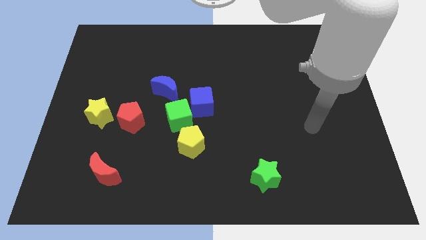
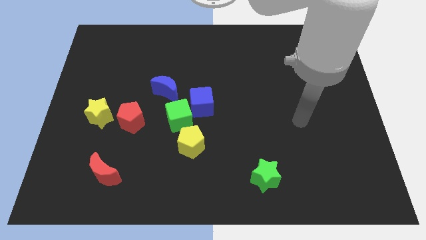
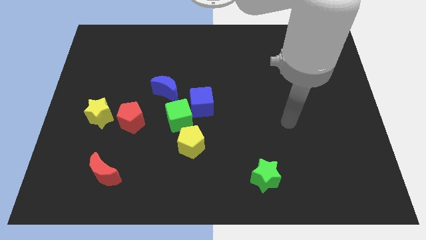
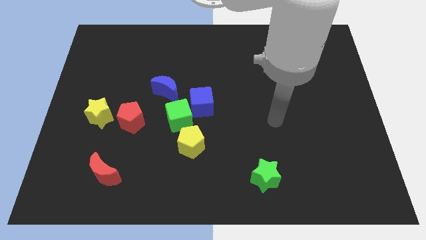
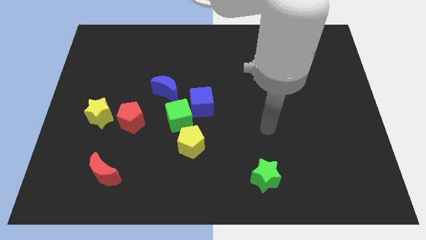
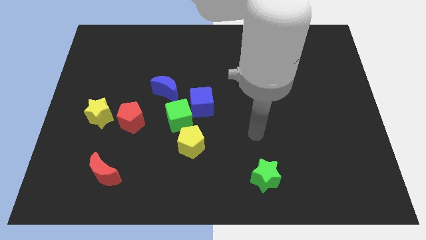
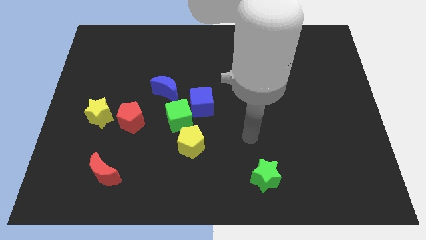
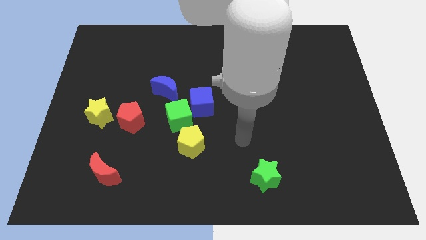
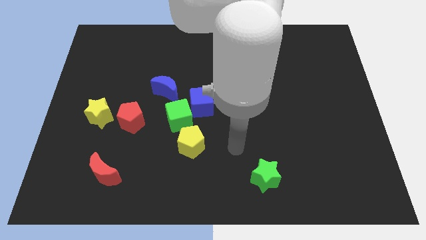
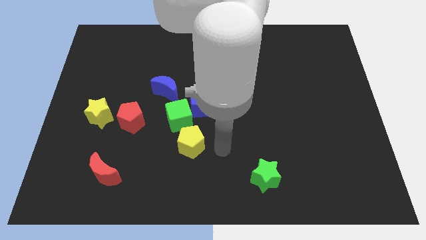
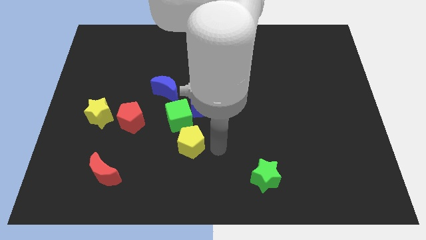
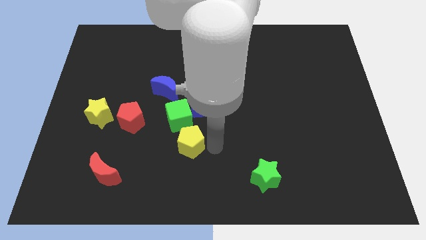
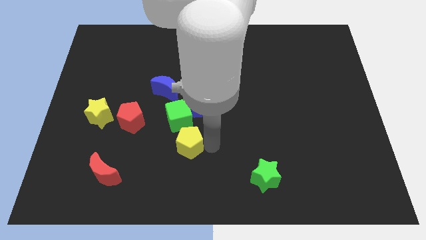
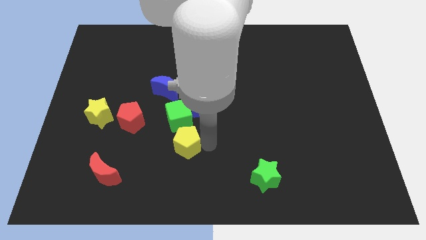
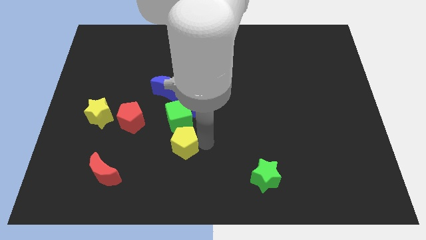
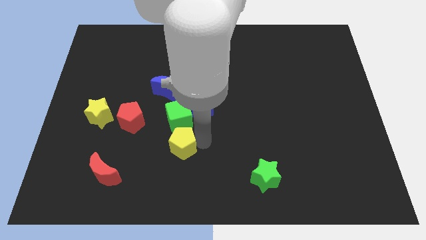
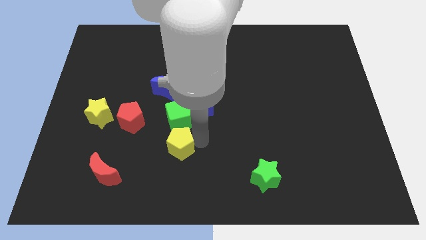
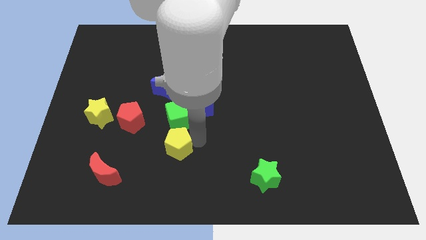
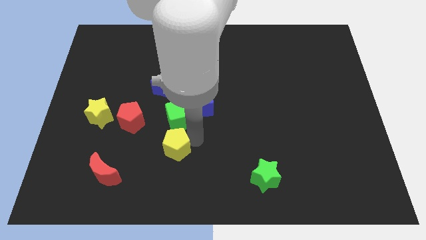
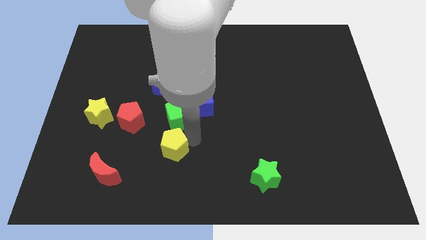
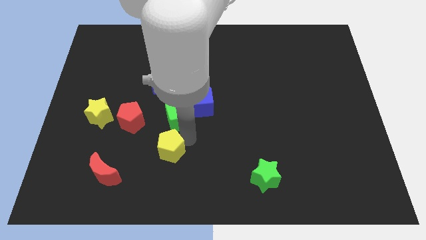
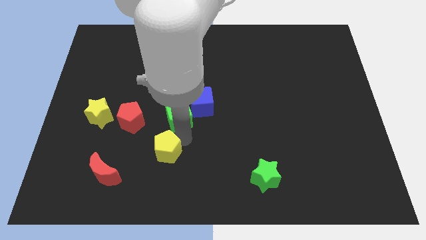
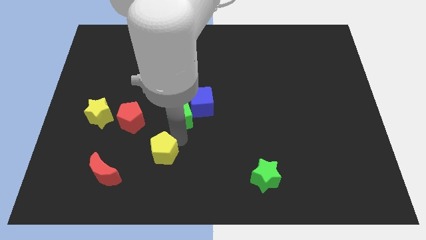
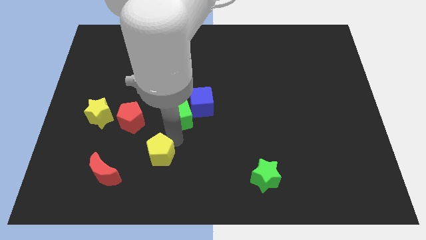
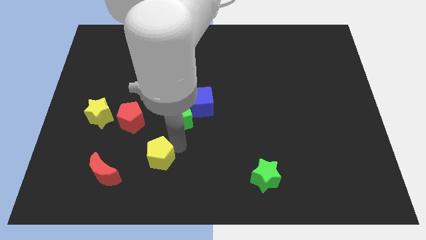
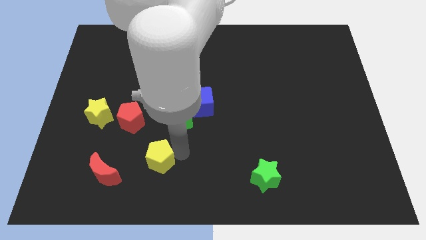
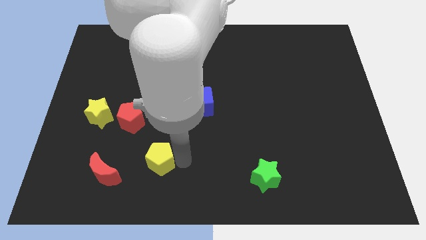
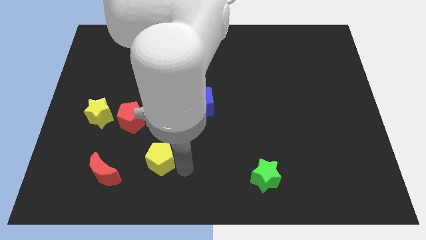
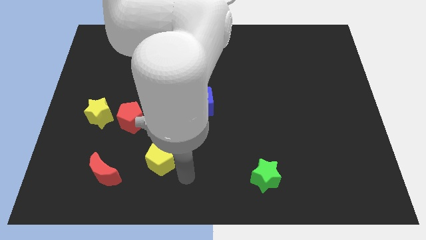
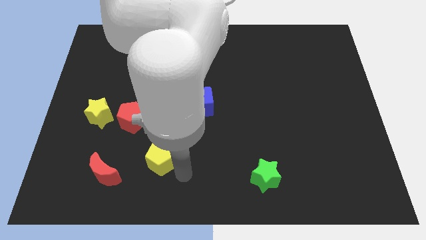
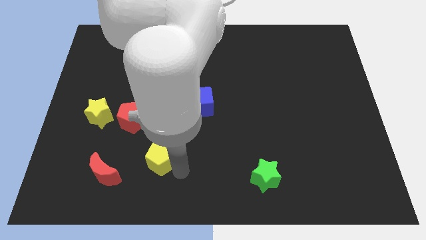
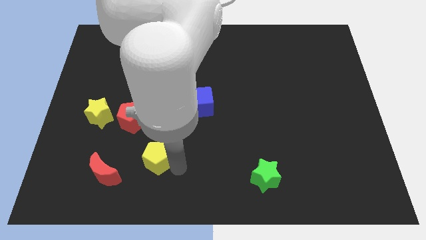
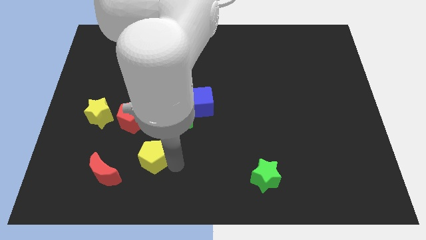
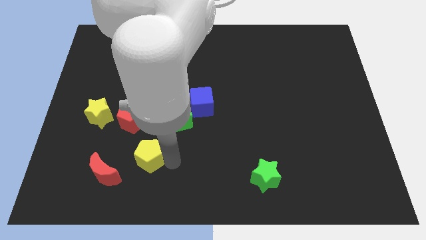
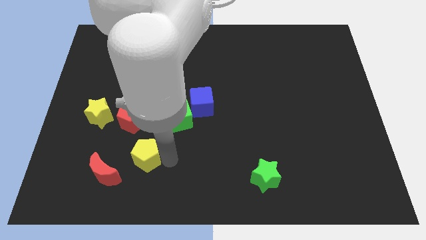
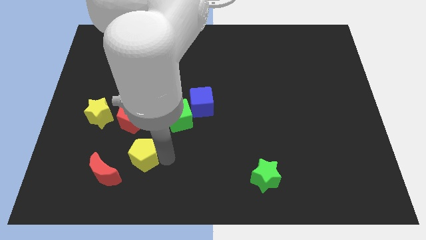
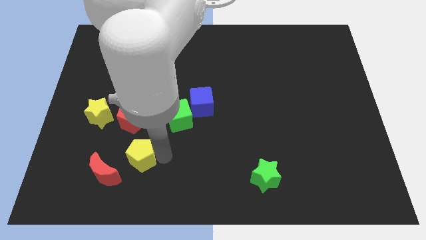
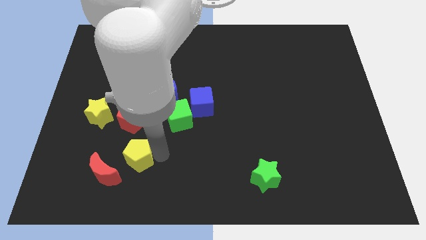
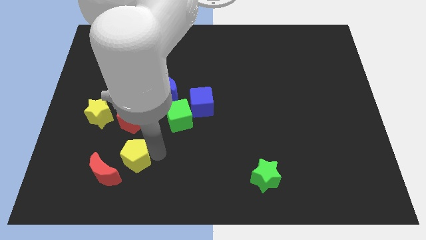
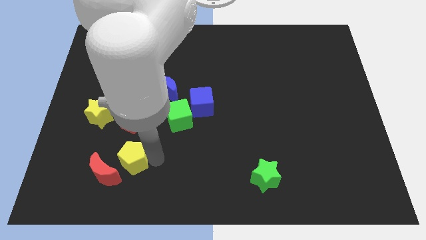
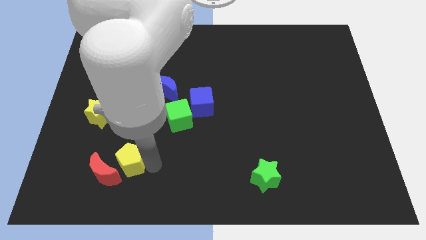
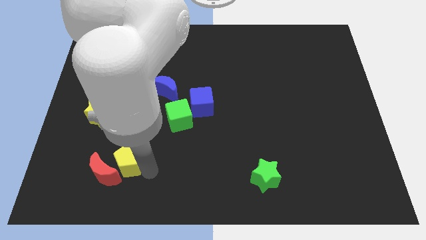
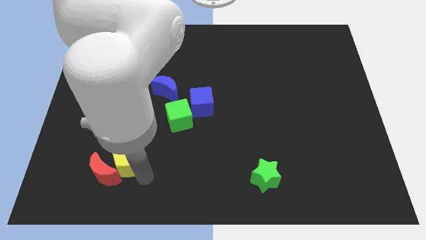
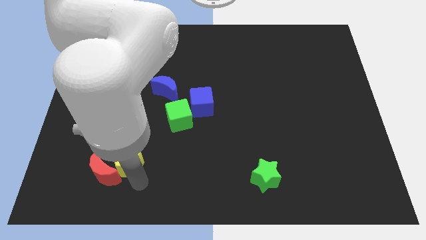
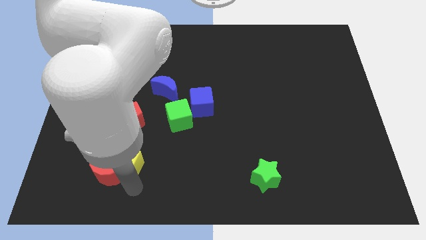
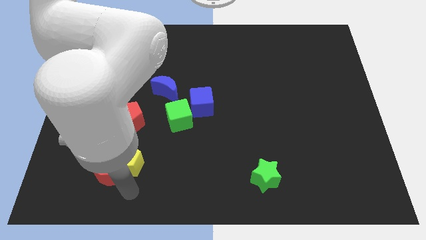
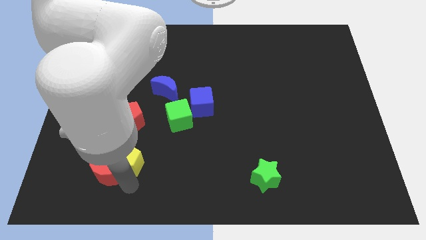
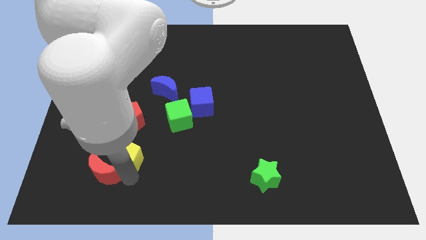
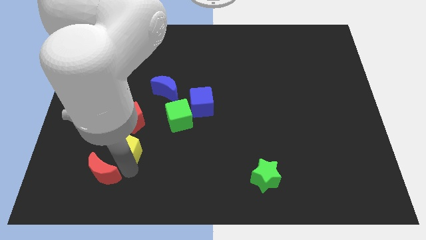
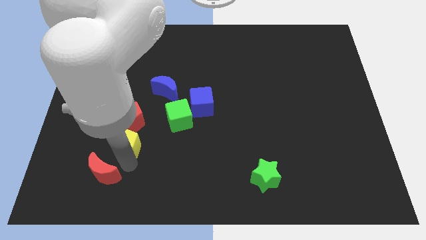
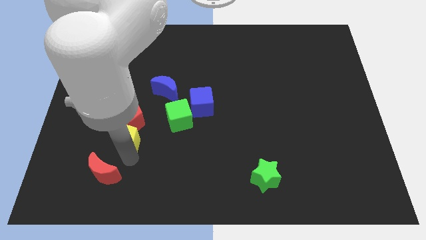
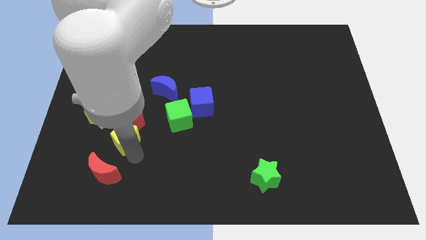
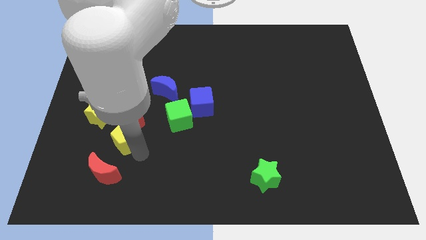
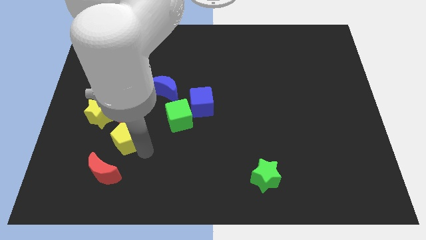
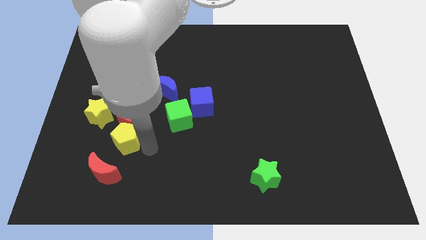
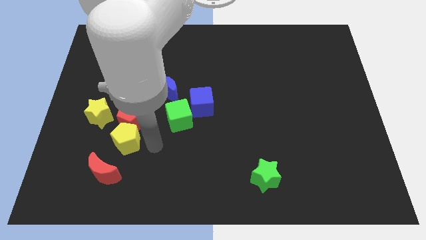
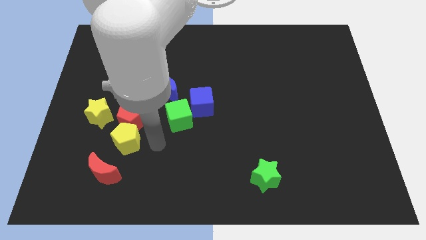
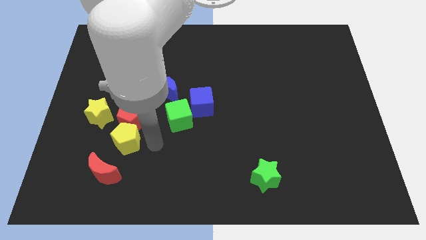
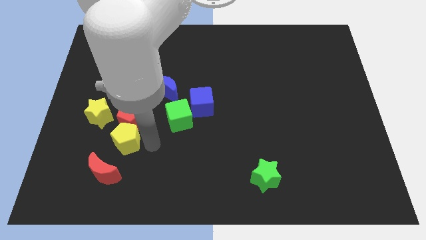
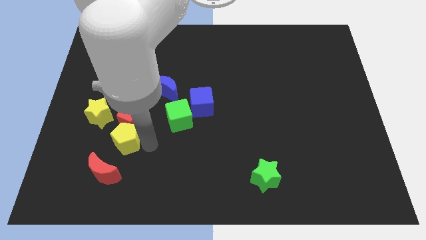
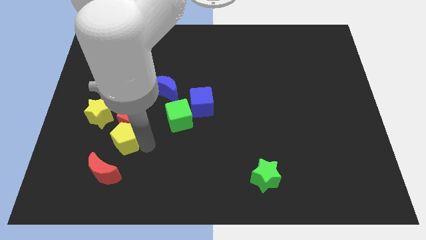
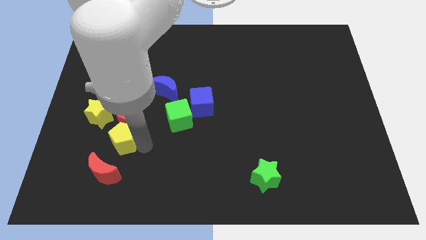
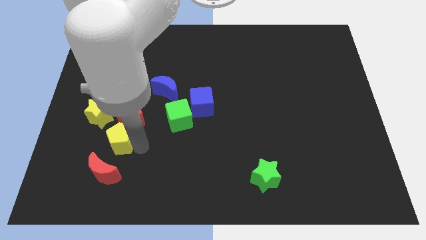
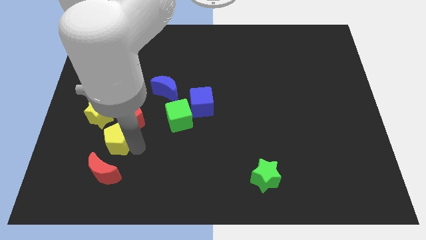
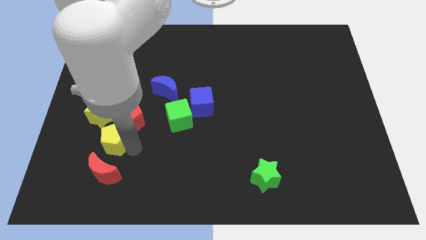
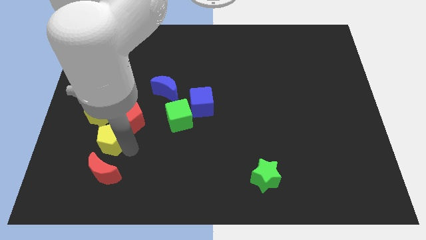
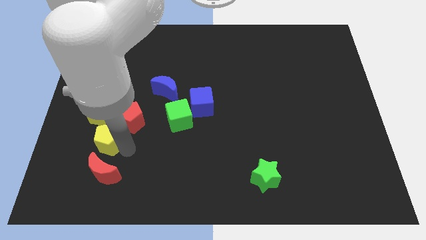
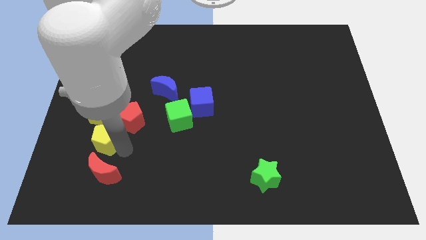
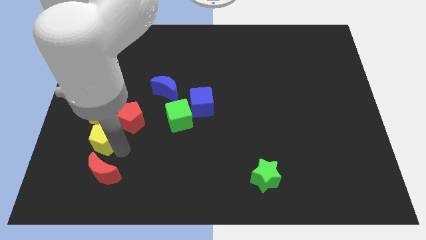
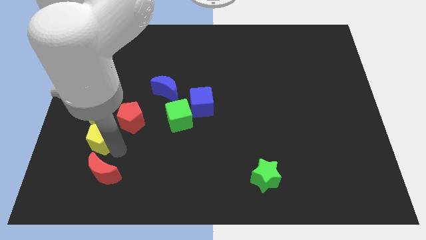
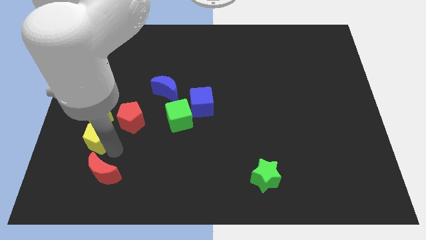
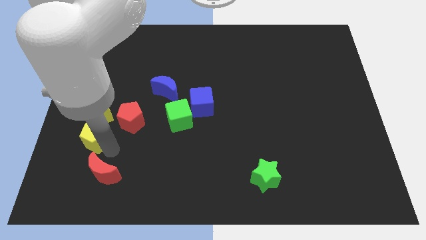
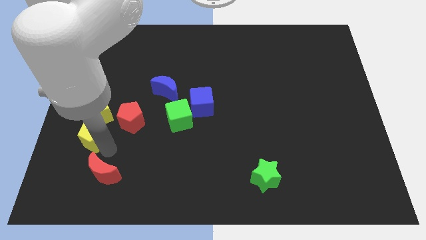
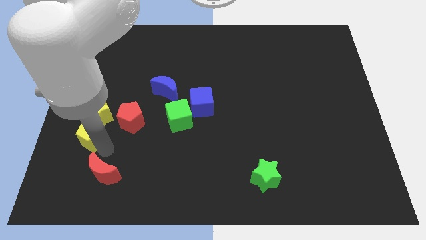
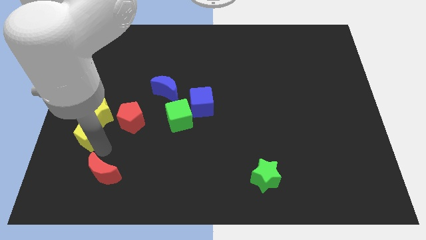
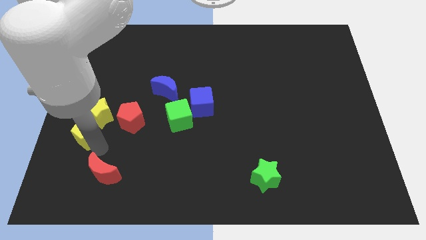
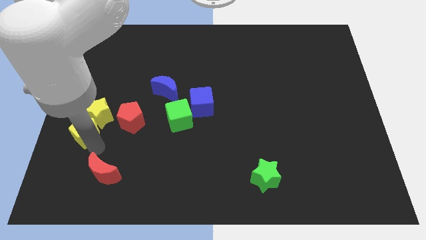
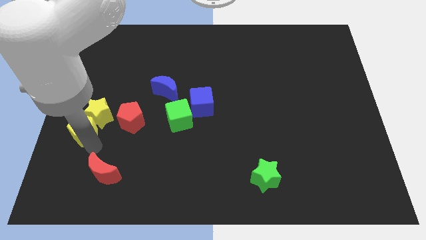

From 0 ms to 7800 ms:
move the yellow pentagon to the left side of the board

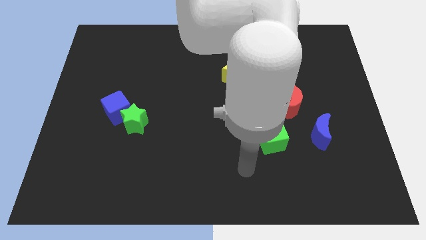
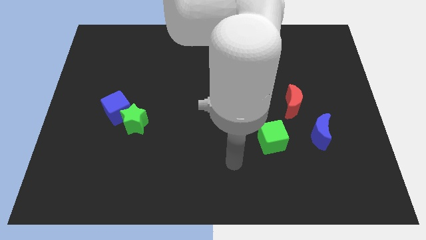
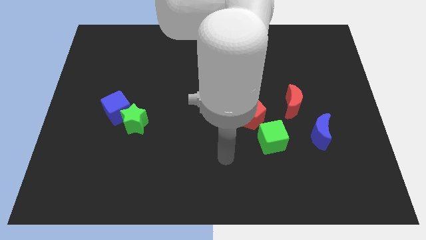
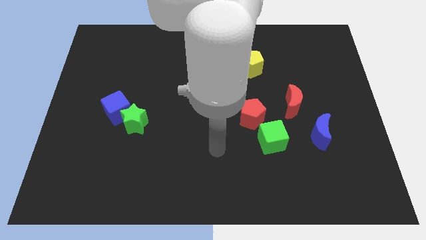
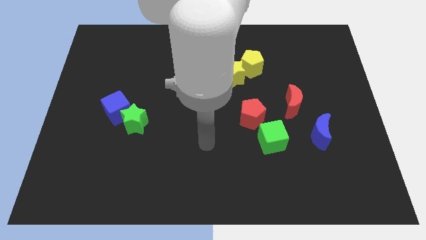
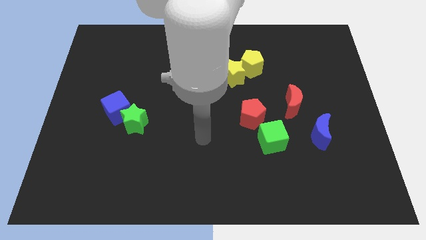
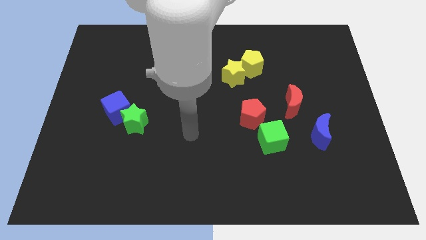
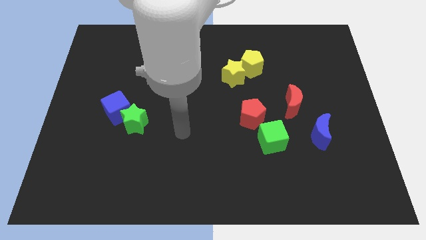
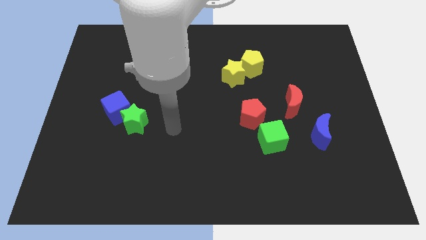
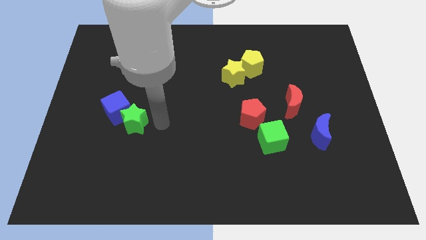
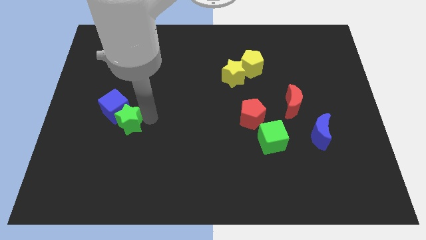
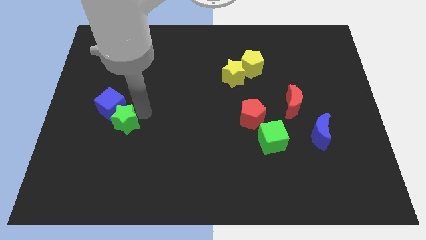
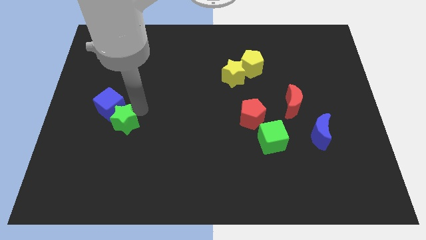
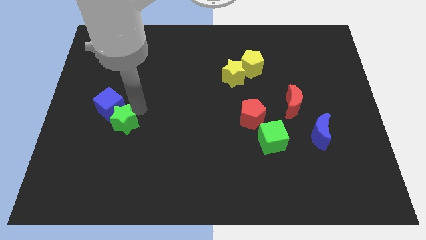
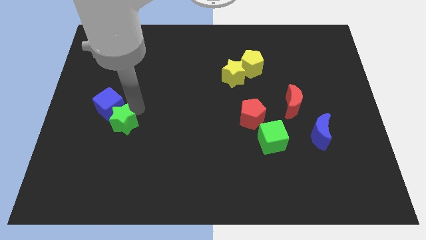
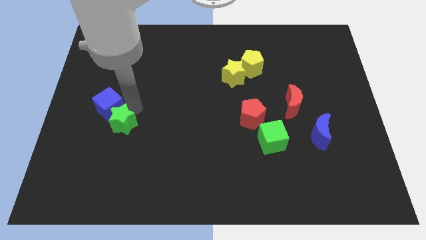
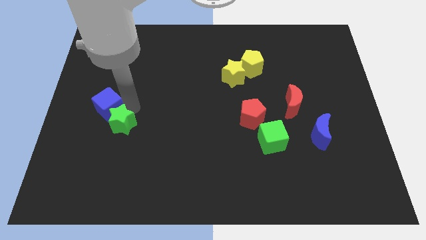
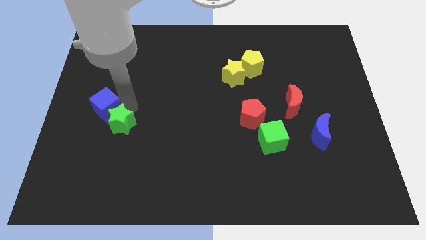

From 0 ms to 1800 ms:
move the blue cube to the left side of the board
